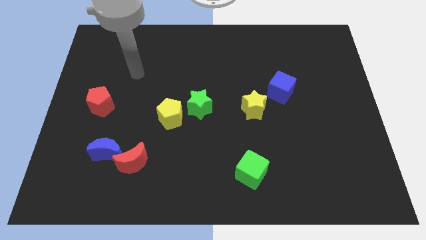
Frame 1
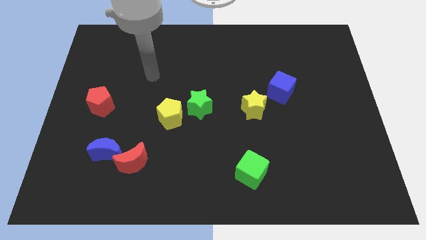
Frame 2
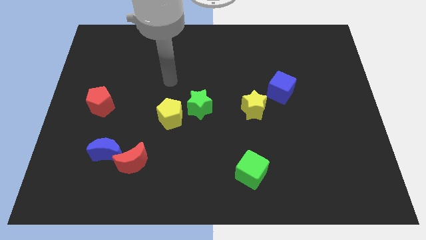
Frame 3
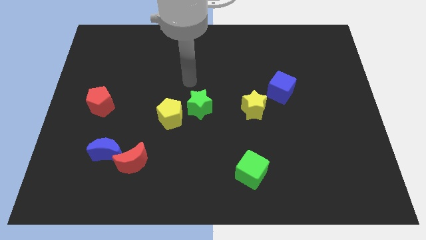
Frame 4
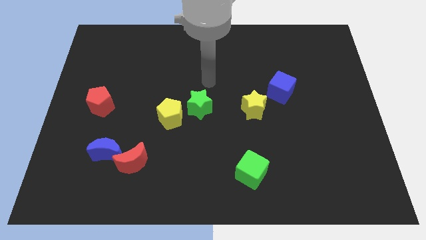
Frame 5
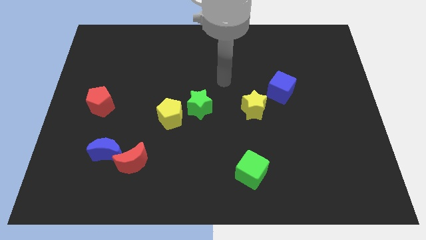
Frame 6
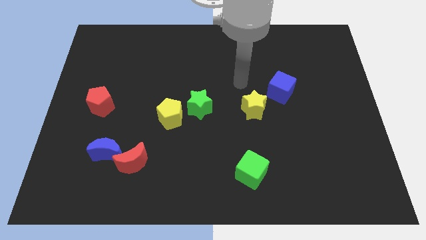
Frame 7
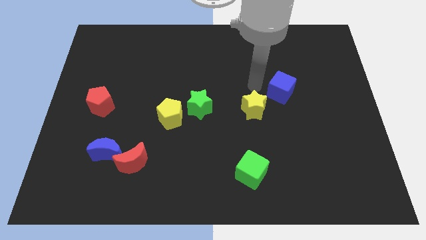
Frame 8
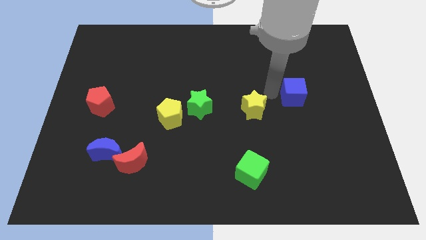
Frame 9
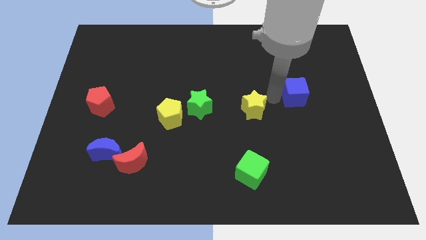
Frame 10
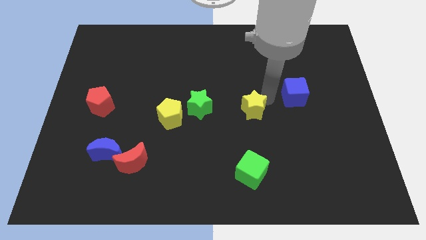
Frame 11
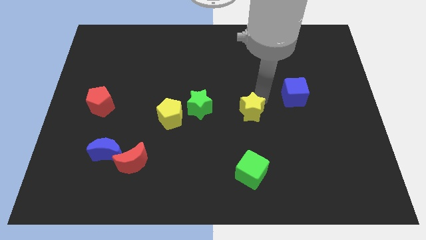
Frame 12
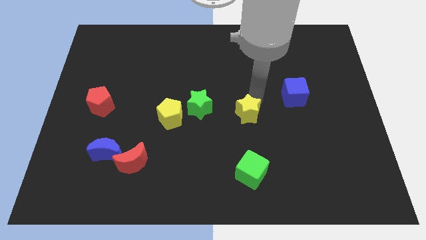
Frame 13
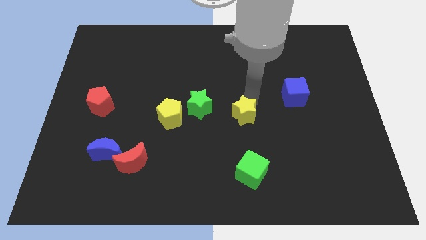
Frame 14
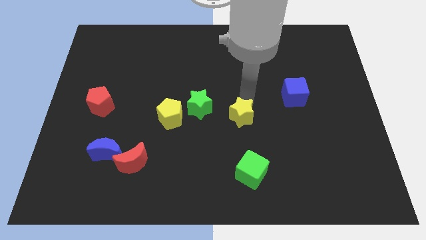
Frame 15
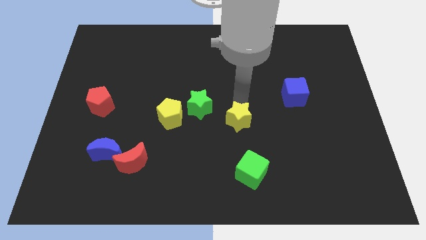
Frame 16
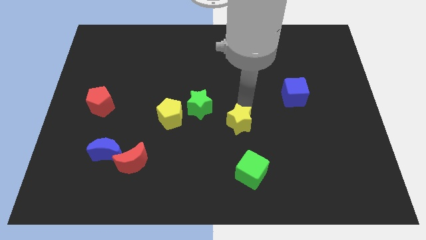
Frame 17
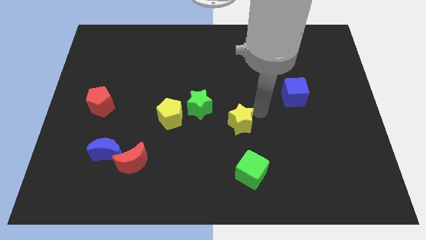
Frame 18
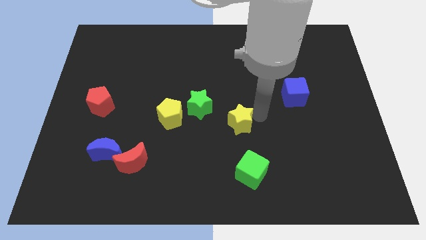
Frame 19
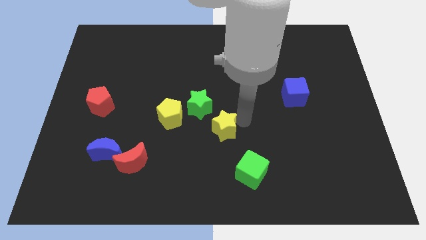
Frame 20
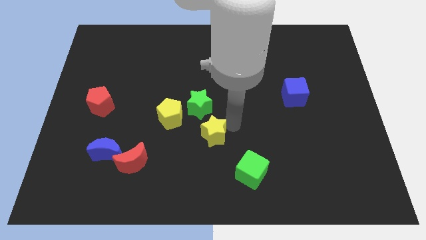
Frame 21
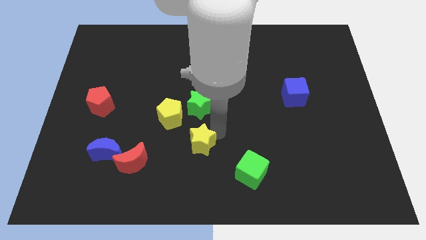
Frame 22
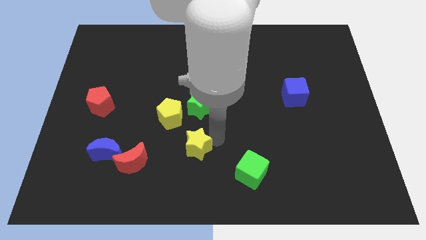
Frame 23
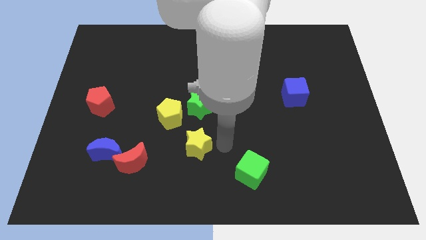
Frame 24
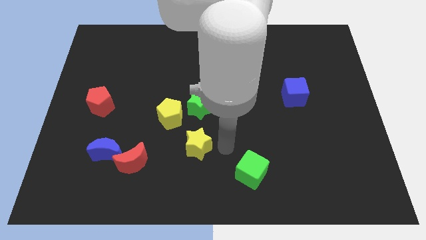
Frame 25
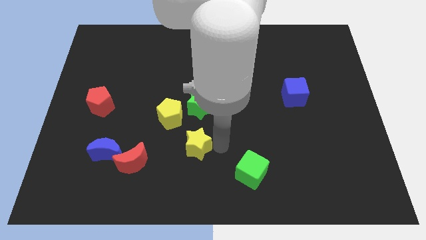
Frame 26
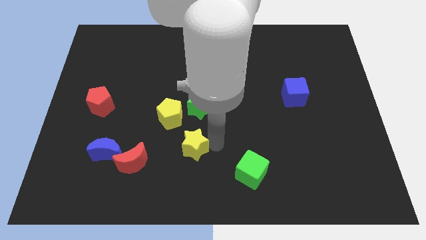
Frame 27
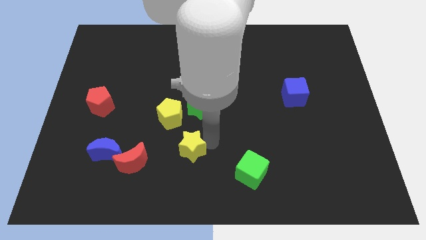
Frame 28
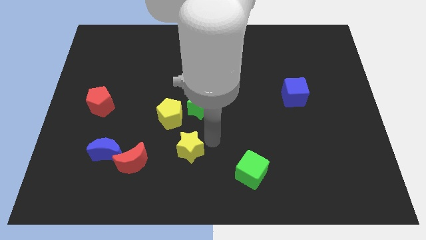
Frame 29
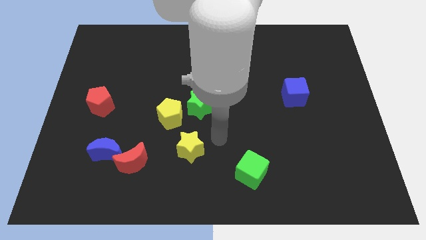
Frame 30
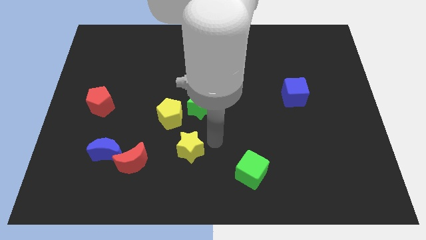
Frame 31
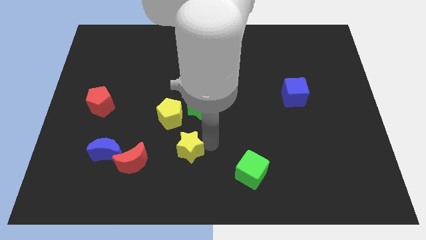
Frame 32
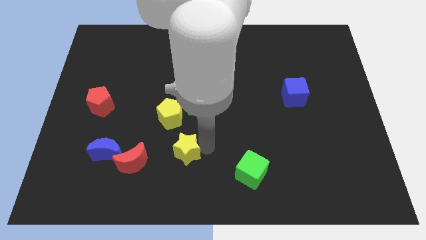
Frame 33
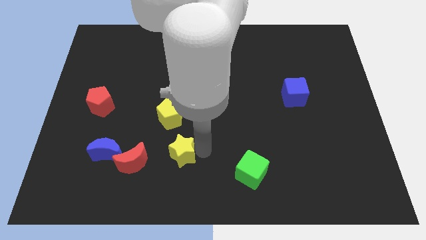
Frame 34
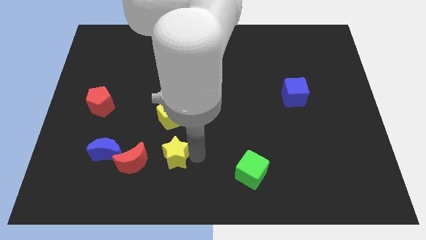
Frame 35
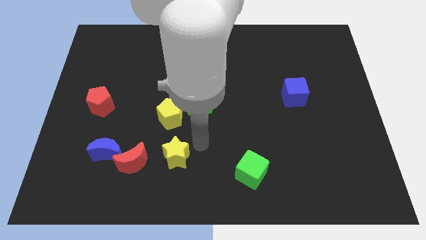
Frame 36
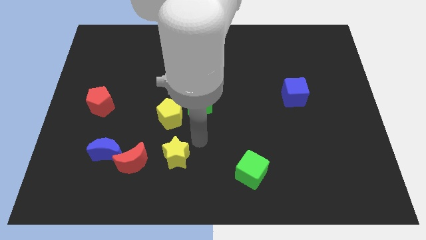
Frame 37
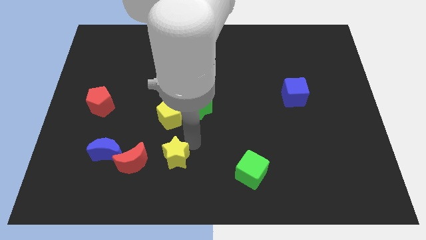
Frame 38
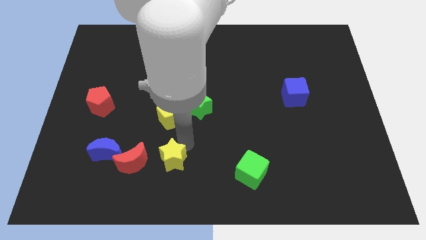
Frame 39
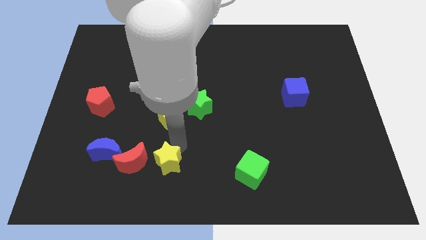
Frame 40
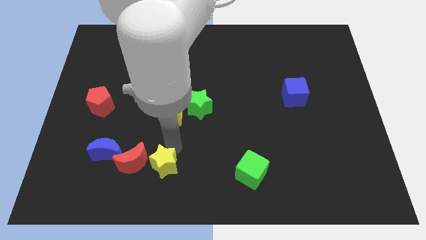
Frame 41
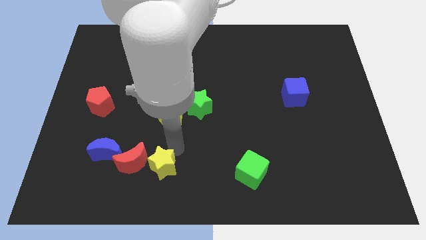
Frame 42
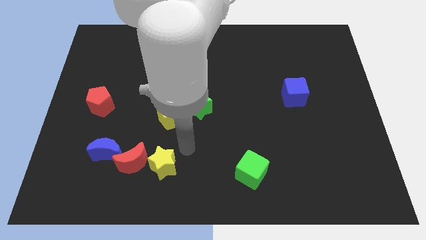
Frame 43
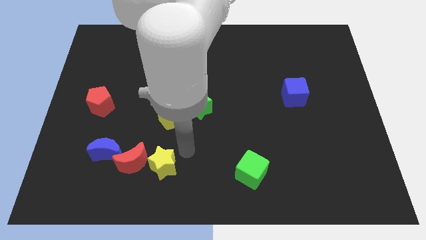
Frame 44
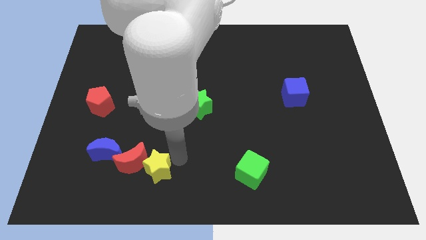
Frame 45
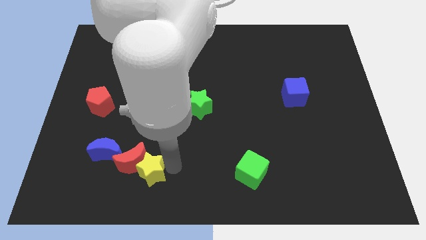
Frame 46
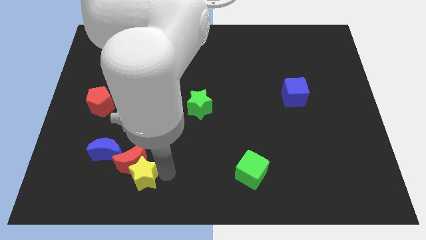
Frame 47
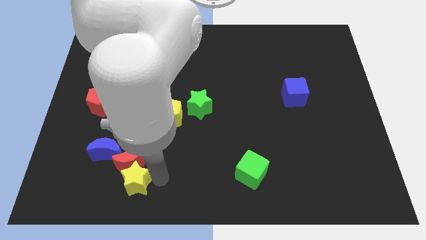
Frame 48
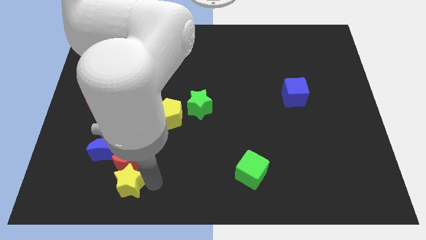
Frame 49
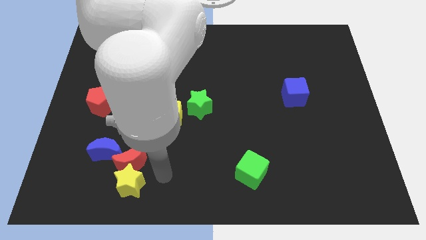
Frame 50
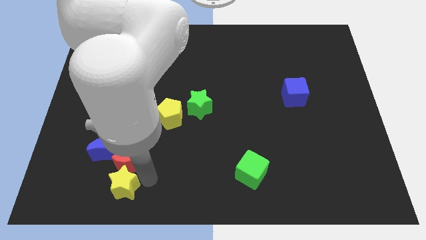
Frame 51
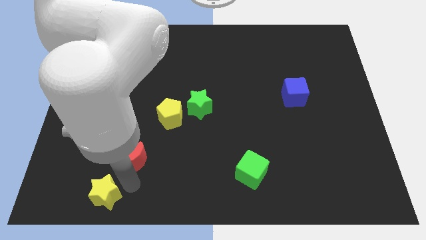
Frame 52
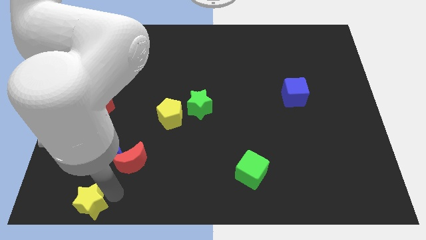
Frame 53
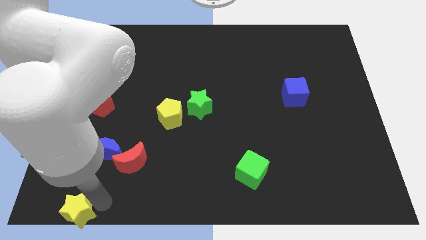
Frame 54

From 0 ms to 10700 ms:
push the yellow star to the bottom left

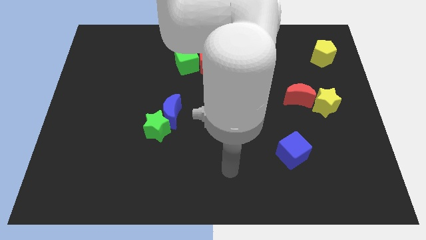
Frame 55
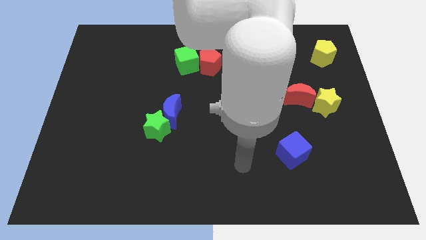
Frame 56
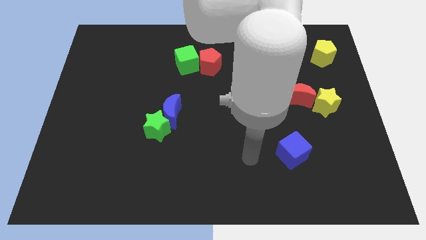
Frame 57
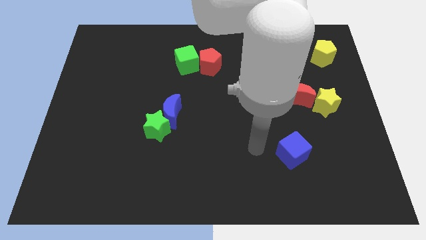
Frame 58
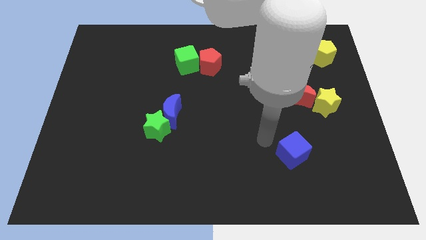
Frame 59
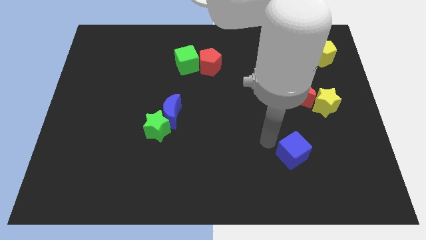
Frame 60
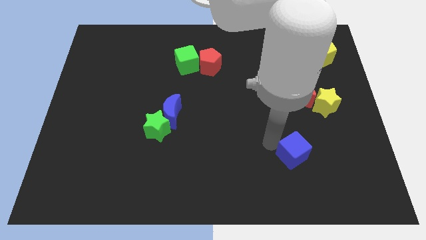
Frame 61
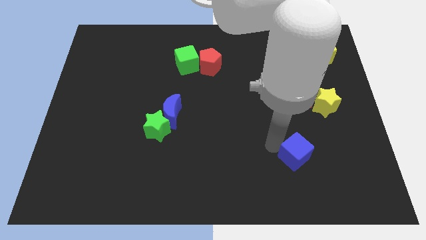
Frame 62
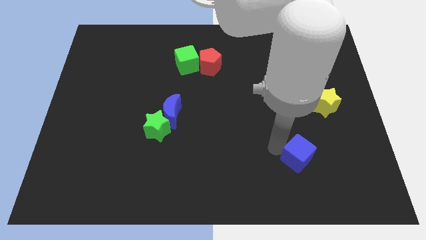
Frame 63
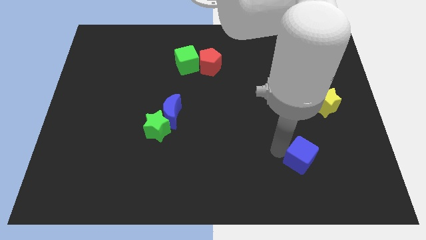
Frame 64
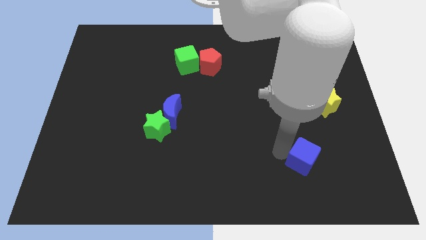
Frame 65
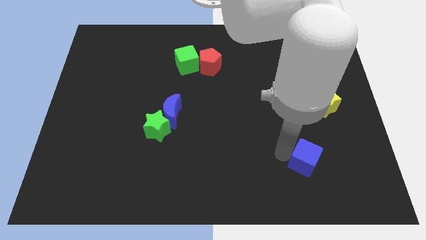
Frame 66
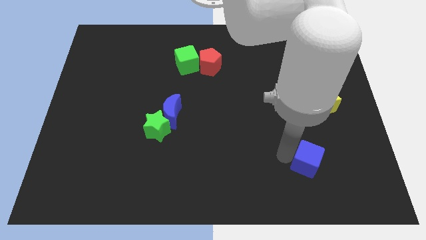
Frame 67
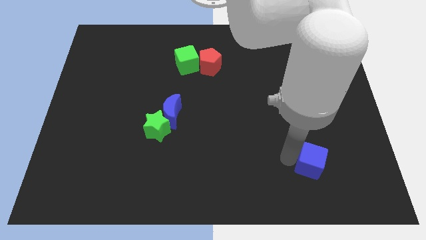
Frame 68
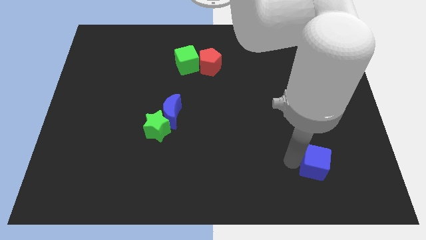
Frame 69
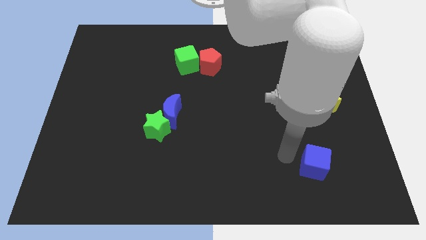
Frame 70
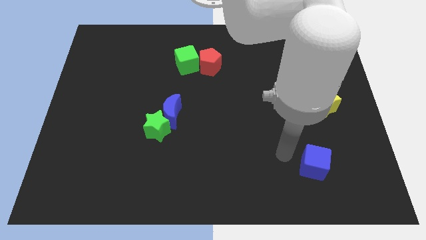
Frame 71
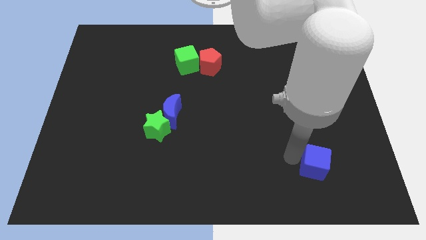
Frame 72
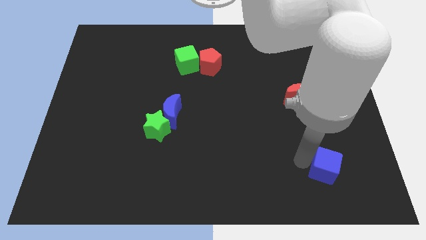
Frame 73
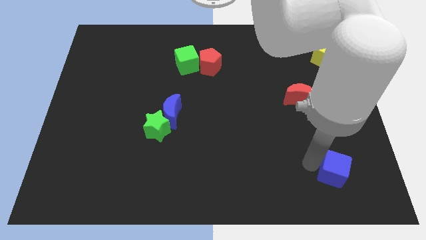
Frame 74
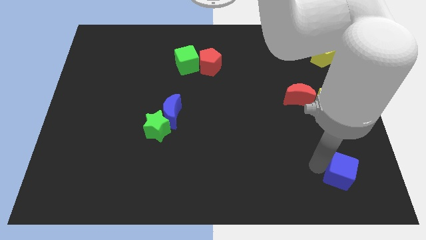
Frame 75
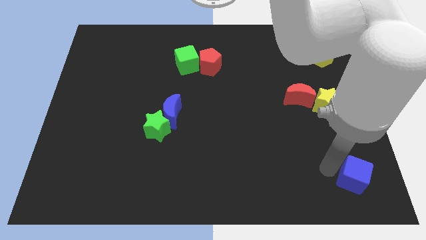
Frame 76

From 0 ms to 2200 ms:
move the blue cube to the bottom right corner
